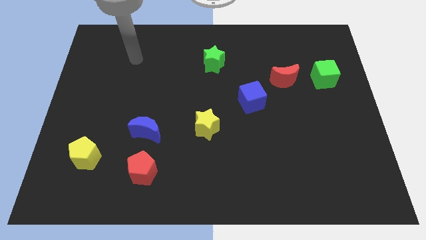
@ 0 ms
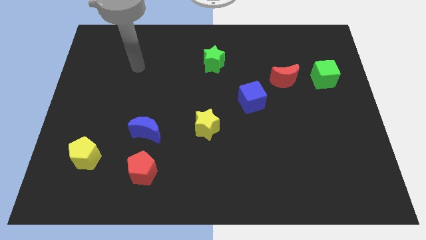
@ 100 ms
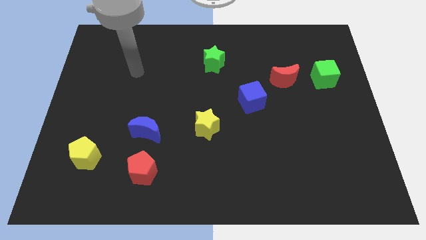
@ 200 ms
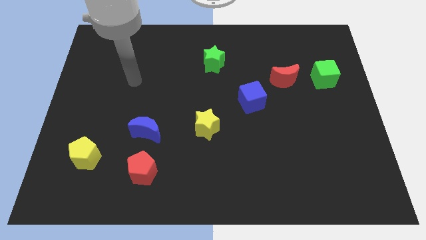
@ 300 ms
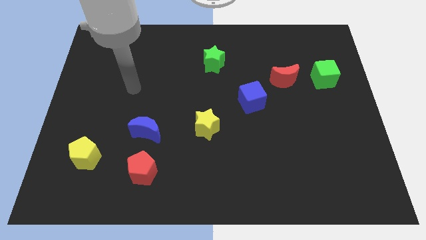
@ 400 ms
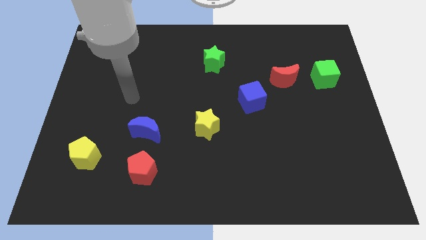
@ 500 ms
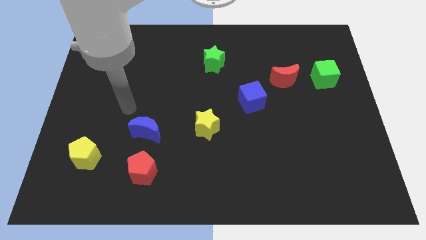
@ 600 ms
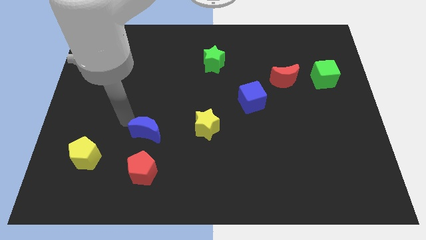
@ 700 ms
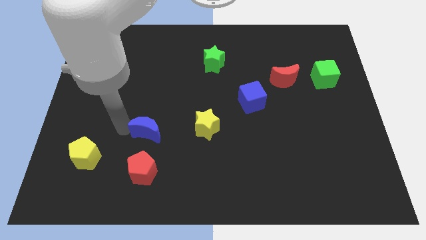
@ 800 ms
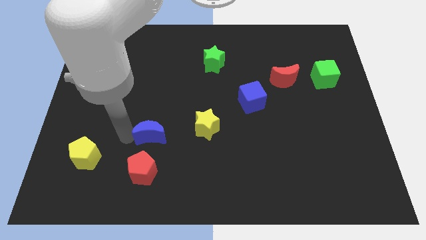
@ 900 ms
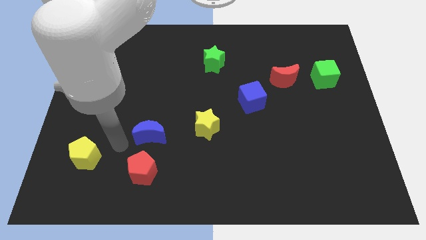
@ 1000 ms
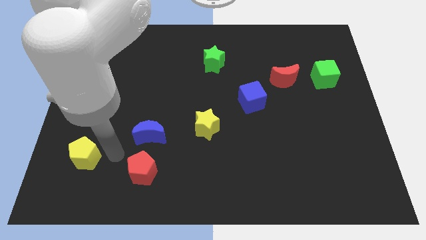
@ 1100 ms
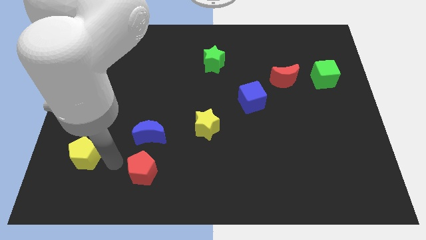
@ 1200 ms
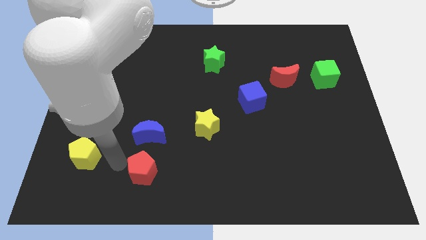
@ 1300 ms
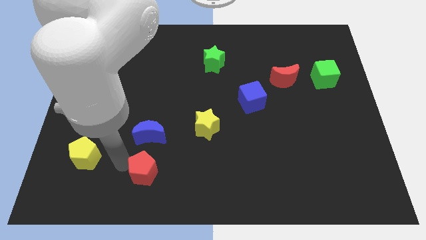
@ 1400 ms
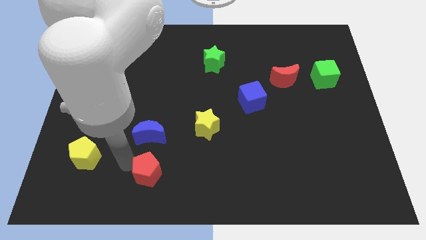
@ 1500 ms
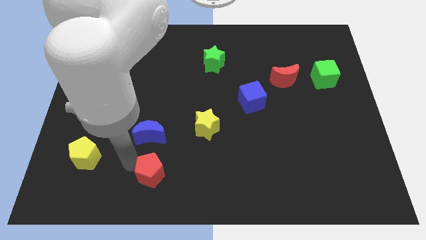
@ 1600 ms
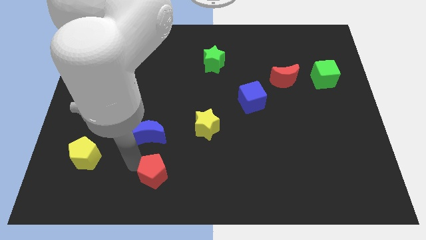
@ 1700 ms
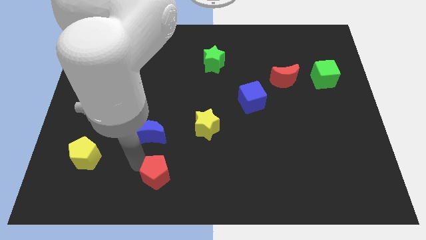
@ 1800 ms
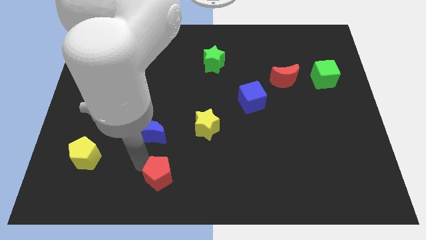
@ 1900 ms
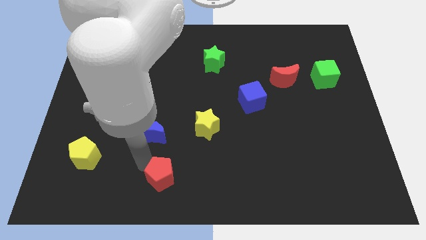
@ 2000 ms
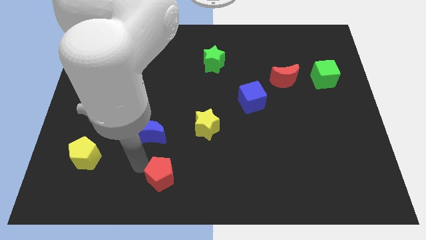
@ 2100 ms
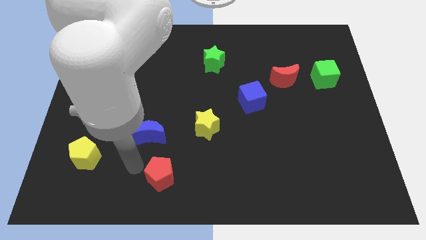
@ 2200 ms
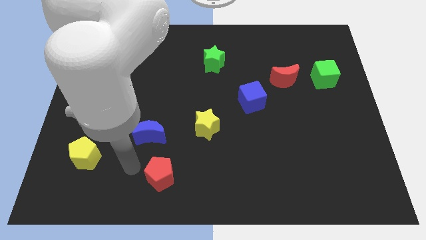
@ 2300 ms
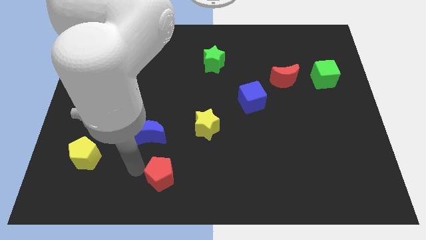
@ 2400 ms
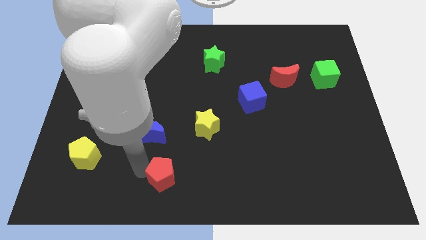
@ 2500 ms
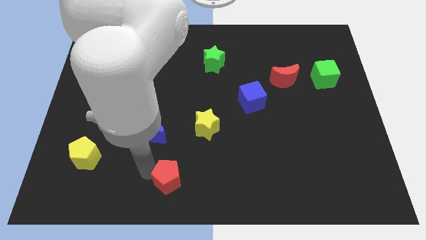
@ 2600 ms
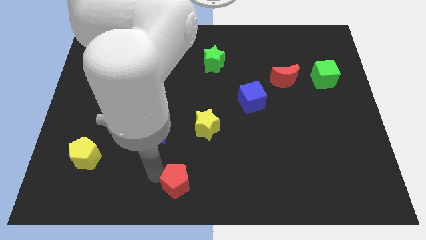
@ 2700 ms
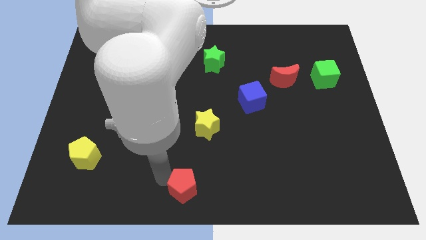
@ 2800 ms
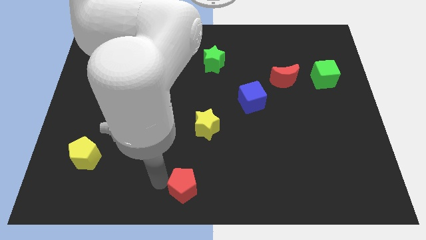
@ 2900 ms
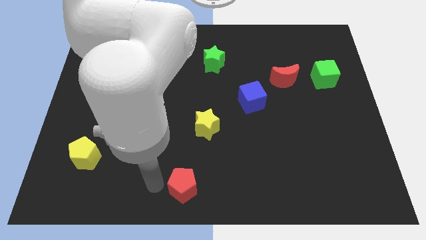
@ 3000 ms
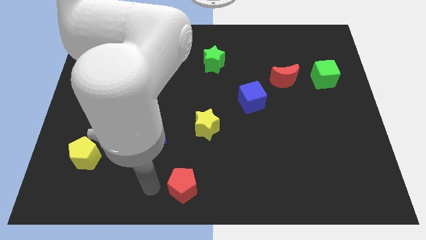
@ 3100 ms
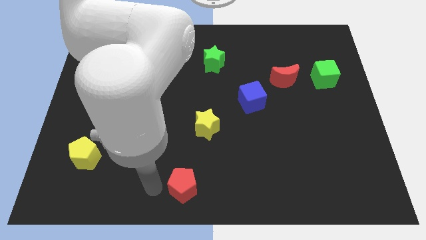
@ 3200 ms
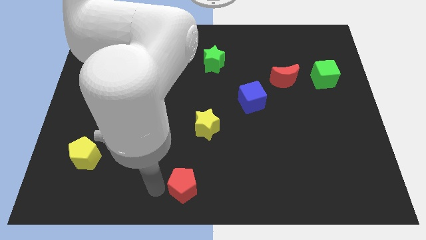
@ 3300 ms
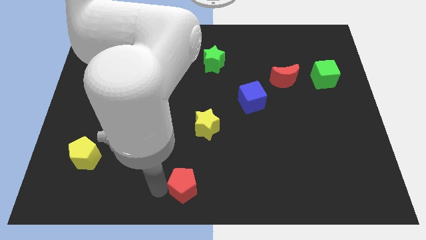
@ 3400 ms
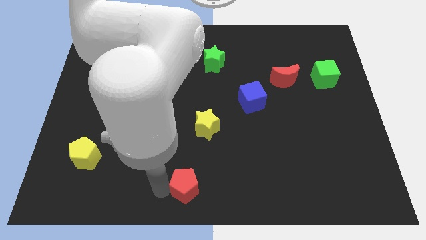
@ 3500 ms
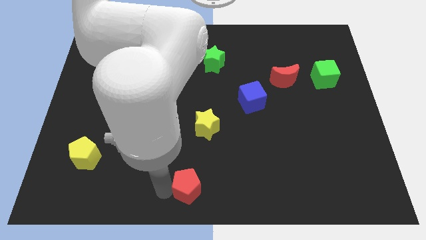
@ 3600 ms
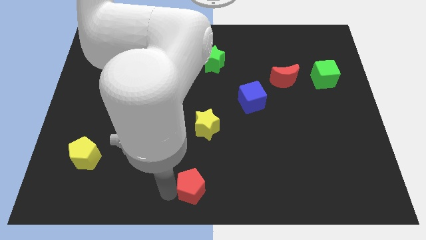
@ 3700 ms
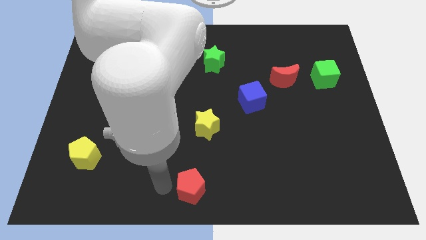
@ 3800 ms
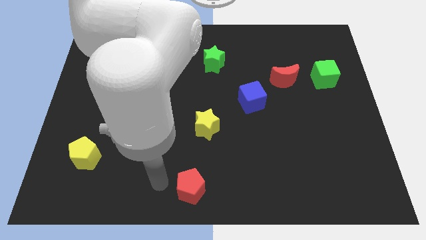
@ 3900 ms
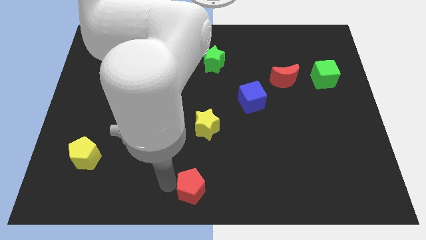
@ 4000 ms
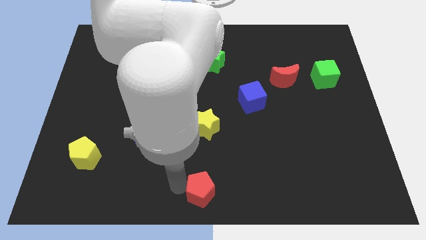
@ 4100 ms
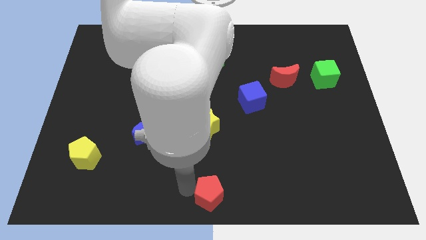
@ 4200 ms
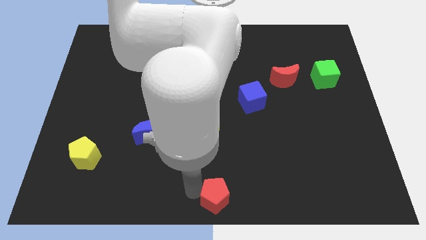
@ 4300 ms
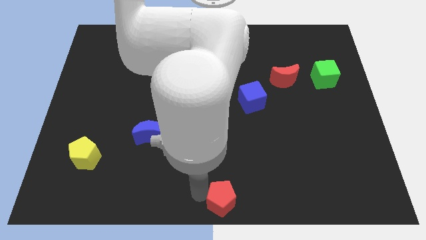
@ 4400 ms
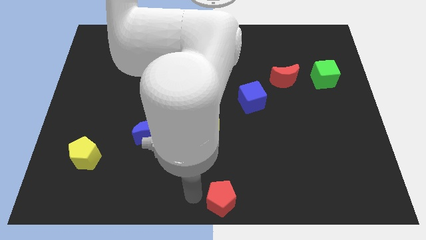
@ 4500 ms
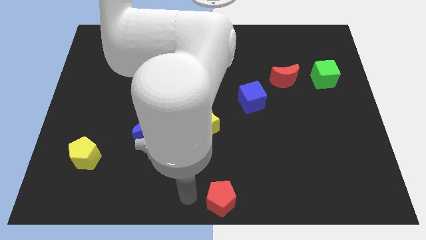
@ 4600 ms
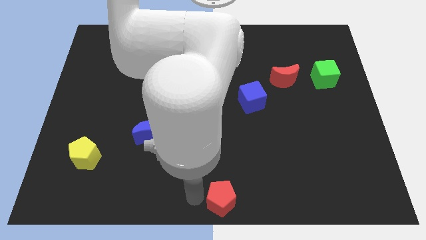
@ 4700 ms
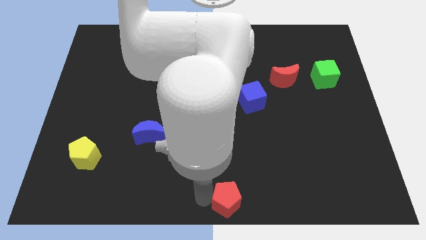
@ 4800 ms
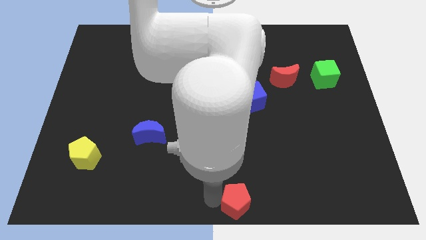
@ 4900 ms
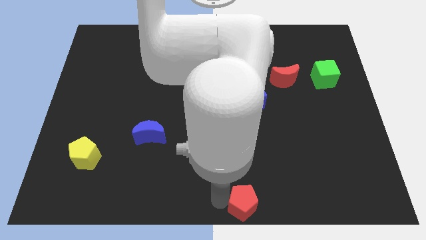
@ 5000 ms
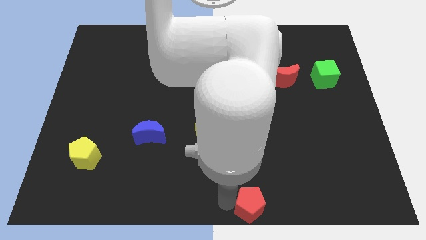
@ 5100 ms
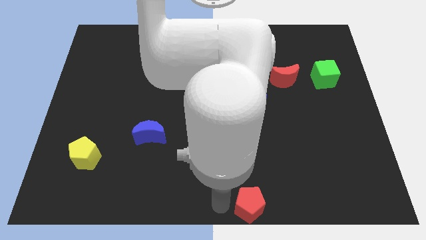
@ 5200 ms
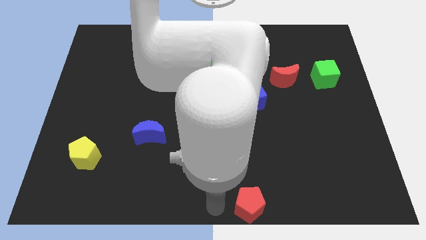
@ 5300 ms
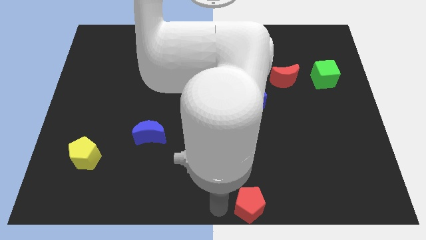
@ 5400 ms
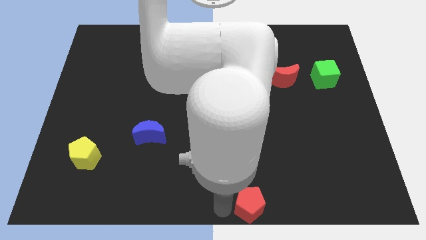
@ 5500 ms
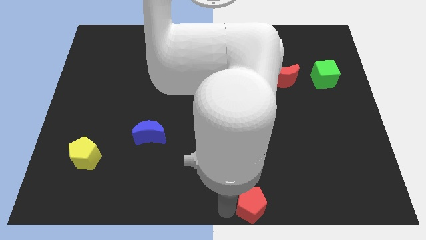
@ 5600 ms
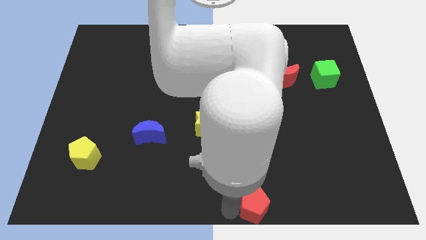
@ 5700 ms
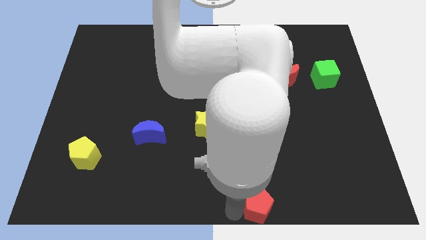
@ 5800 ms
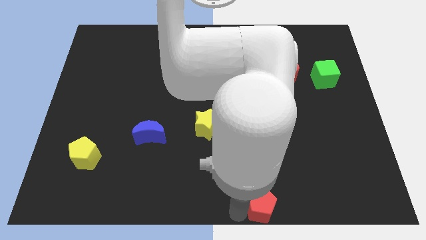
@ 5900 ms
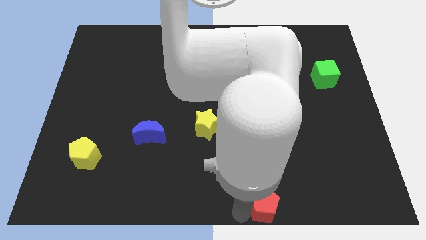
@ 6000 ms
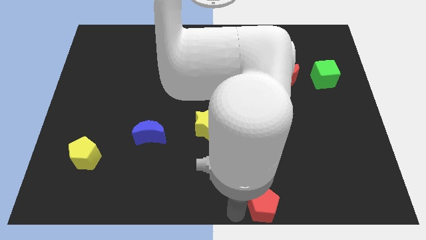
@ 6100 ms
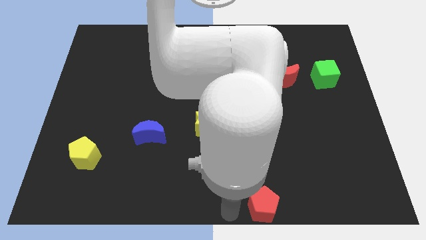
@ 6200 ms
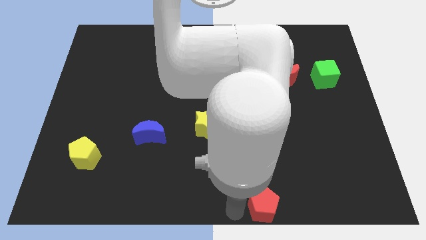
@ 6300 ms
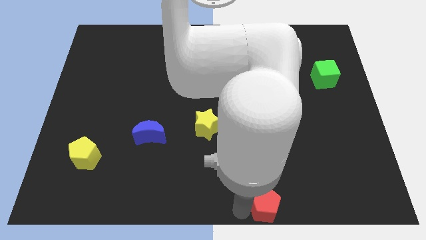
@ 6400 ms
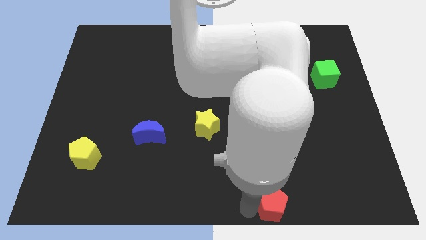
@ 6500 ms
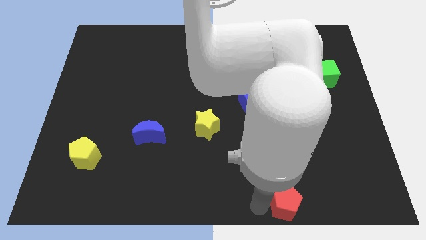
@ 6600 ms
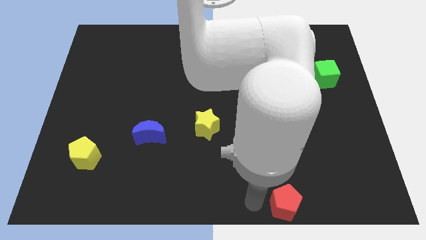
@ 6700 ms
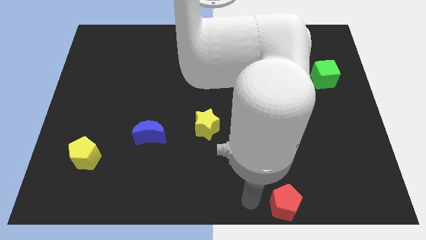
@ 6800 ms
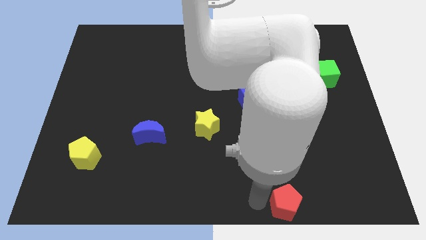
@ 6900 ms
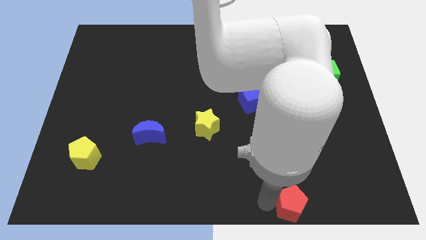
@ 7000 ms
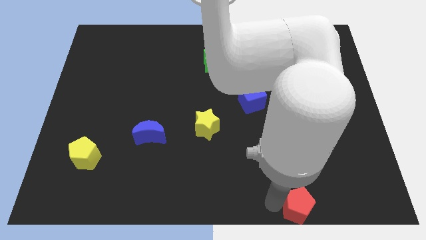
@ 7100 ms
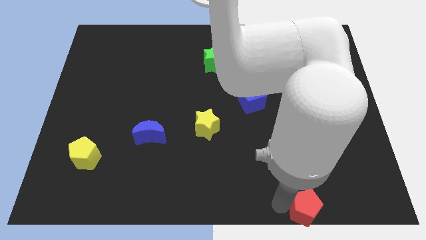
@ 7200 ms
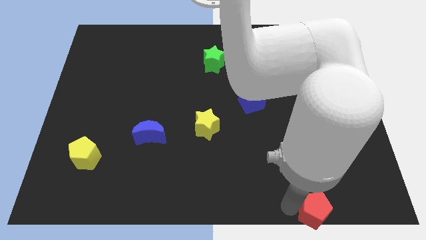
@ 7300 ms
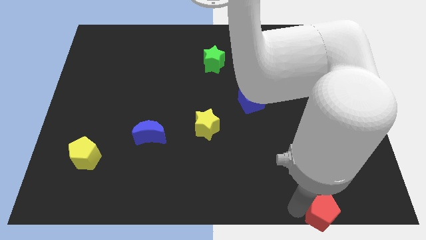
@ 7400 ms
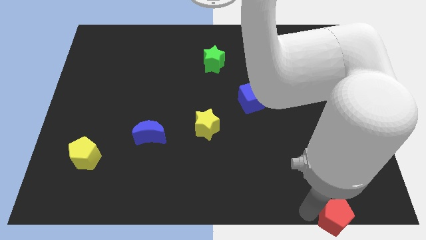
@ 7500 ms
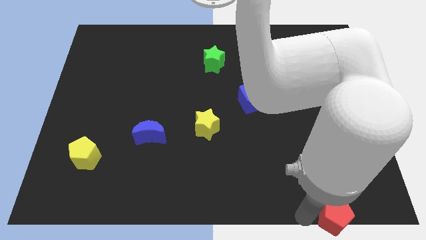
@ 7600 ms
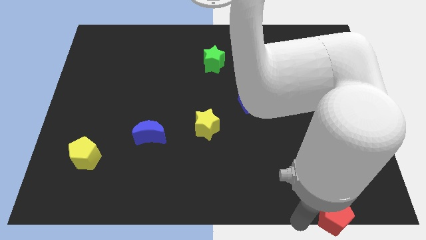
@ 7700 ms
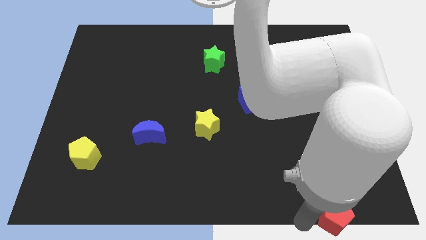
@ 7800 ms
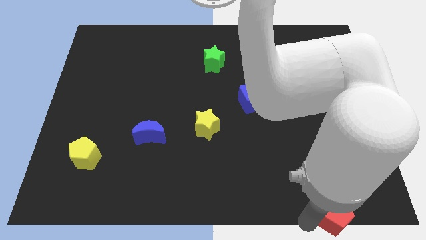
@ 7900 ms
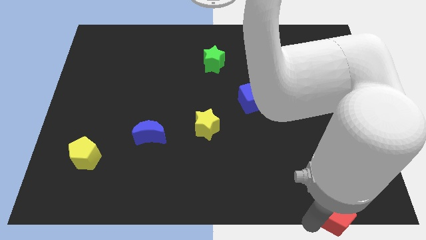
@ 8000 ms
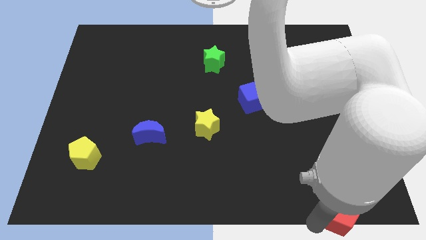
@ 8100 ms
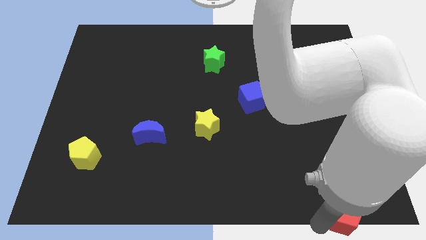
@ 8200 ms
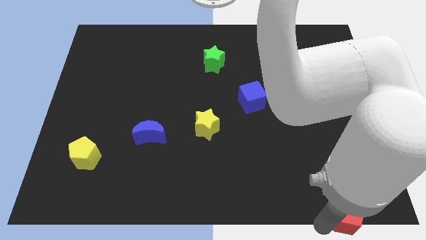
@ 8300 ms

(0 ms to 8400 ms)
put the red pentagon to the bottom right
